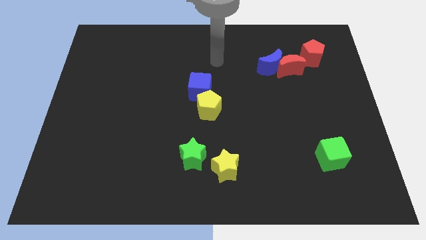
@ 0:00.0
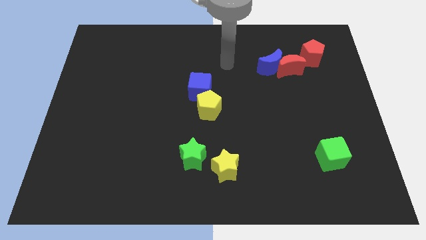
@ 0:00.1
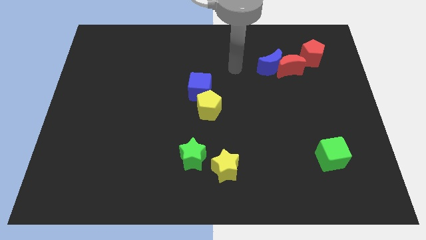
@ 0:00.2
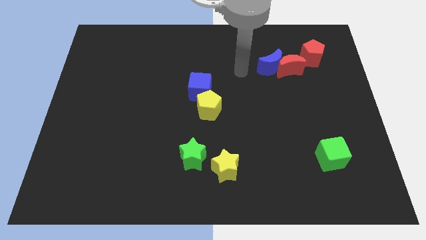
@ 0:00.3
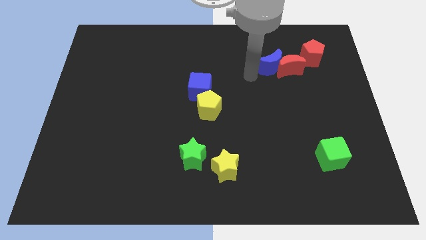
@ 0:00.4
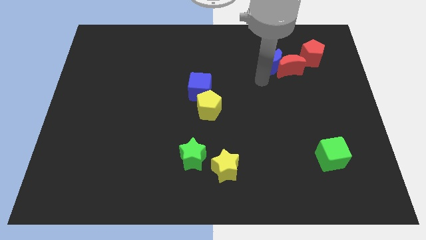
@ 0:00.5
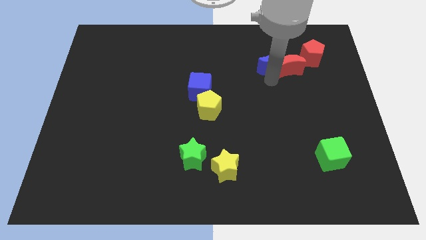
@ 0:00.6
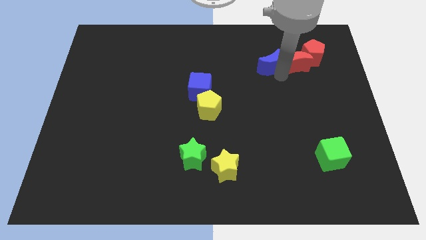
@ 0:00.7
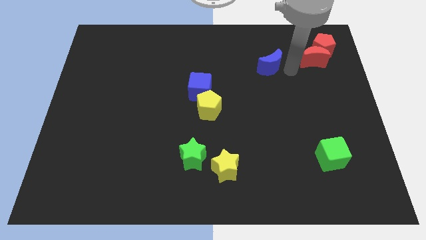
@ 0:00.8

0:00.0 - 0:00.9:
separate the blue moon from the red moon

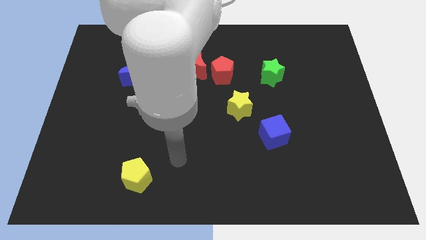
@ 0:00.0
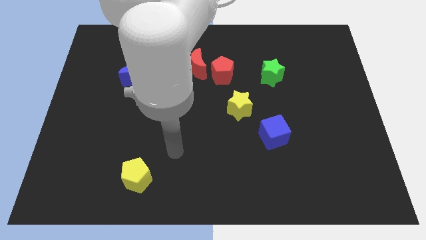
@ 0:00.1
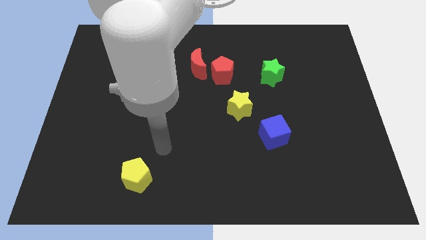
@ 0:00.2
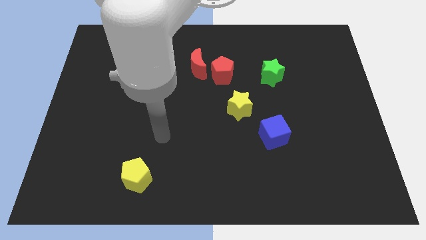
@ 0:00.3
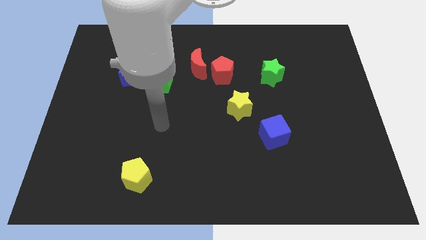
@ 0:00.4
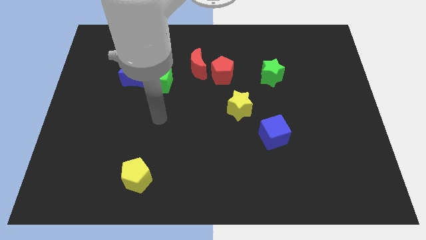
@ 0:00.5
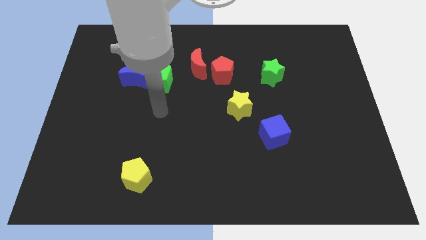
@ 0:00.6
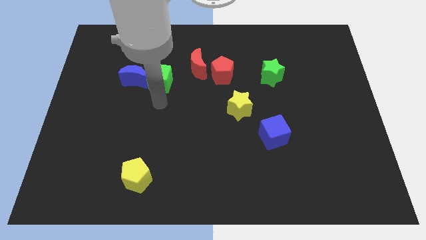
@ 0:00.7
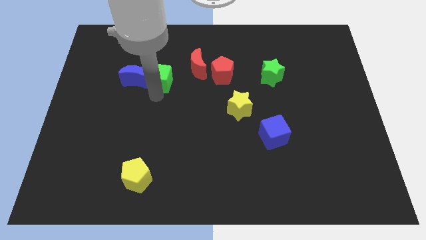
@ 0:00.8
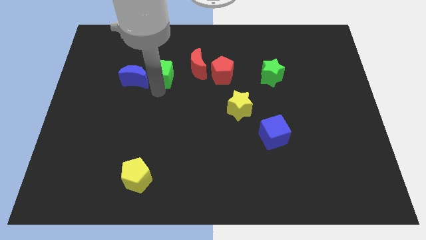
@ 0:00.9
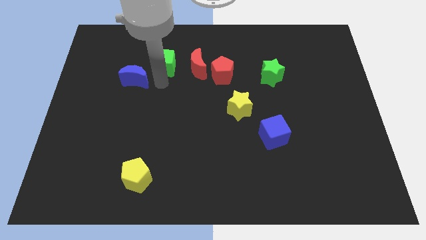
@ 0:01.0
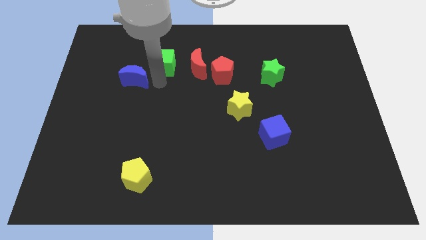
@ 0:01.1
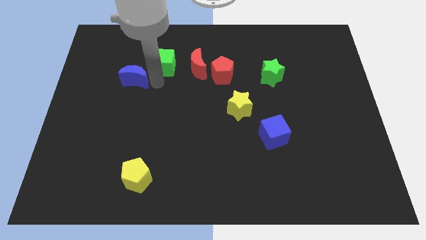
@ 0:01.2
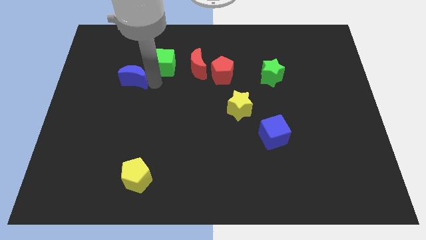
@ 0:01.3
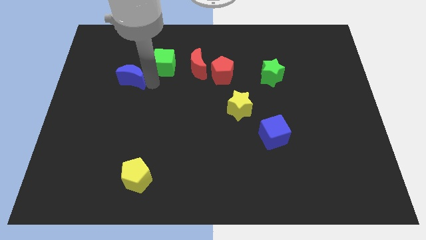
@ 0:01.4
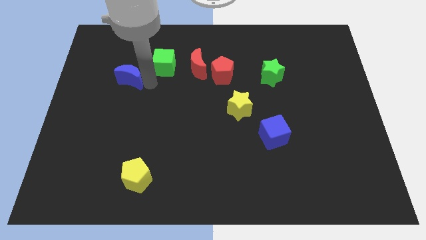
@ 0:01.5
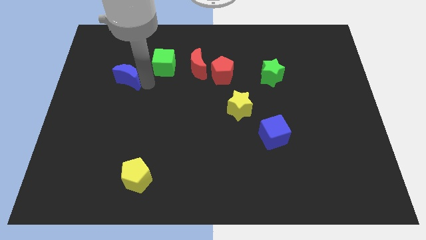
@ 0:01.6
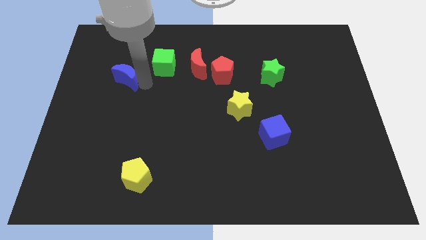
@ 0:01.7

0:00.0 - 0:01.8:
separate the blue moon from the green cube

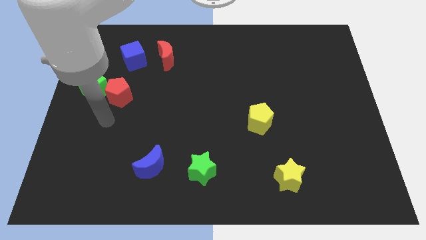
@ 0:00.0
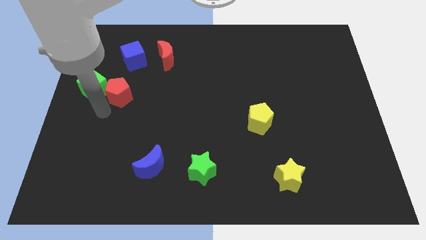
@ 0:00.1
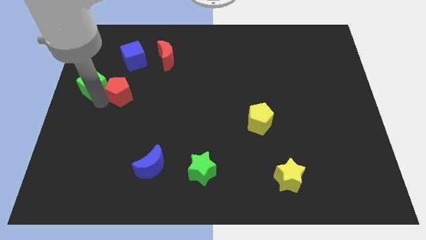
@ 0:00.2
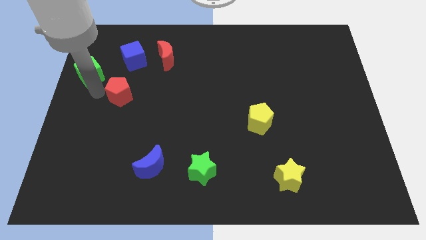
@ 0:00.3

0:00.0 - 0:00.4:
pull the red pentagon apart from the green cube

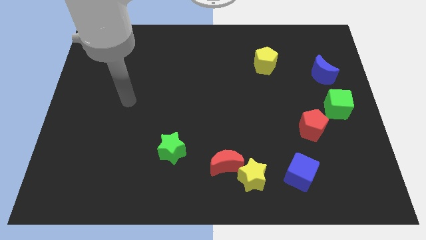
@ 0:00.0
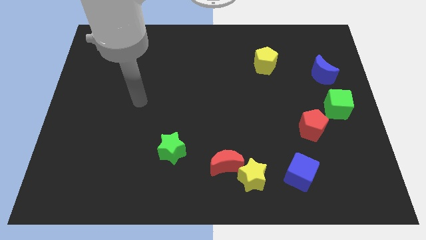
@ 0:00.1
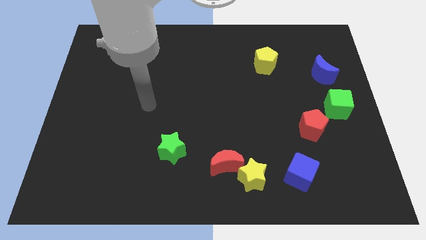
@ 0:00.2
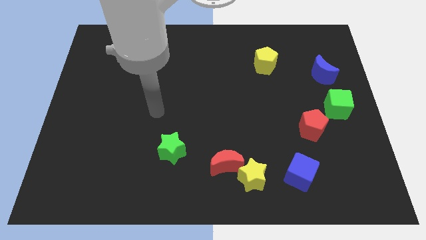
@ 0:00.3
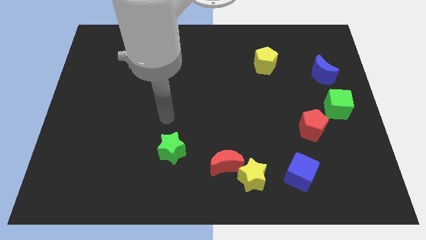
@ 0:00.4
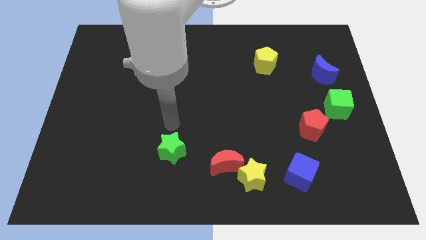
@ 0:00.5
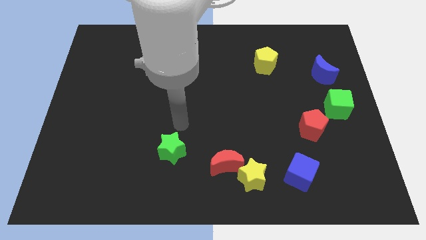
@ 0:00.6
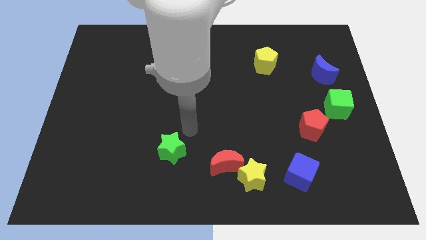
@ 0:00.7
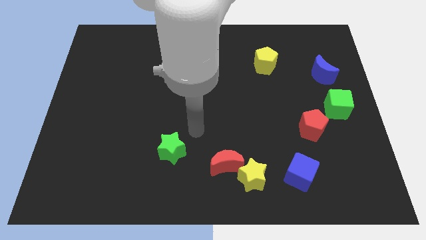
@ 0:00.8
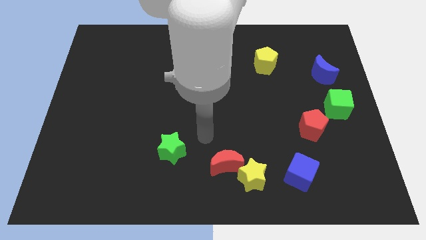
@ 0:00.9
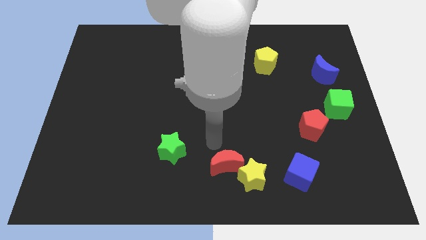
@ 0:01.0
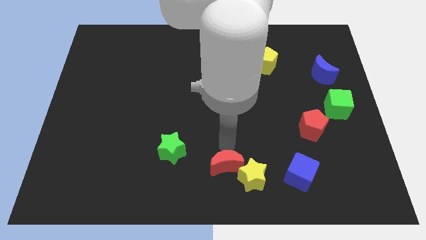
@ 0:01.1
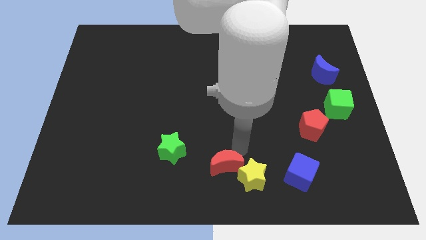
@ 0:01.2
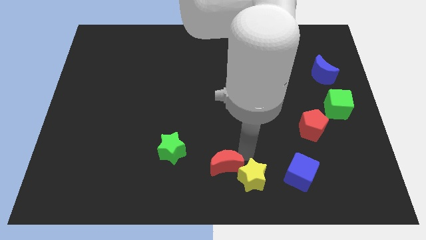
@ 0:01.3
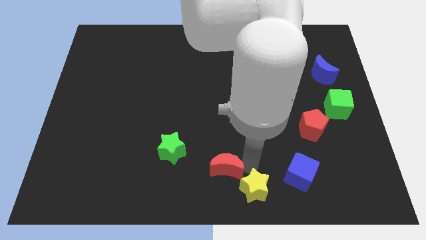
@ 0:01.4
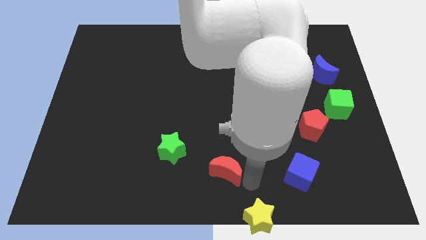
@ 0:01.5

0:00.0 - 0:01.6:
pull the red moon apart from the yellow star

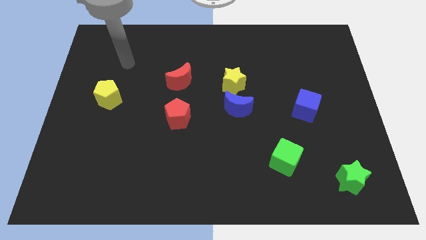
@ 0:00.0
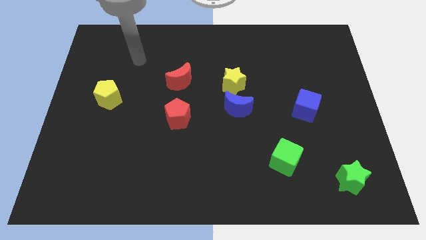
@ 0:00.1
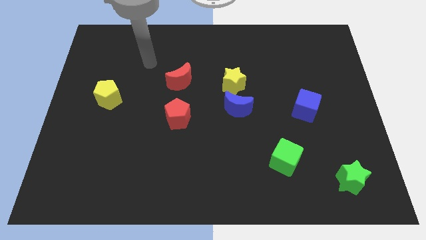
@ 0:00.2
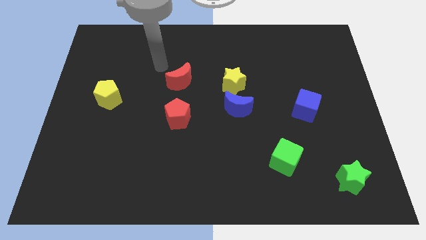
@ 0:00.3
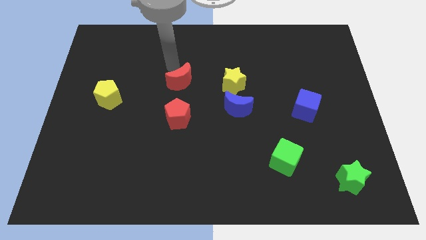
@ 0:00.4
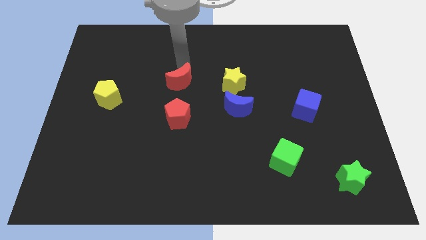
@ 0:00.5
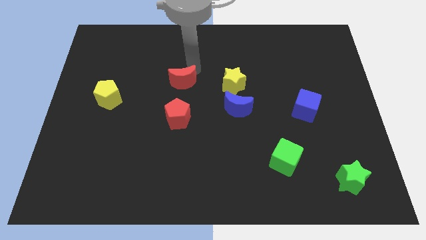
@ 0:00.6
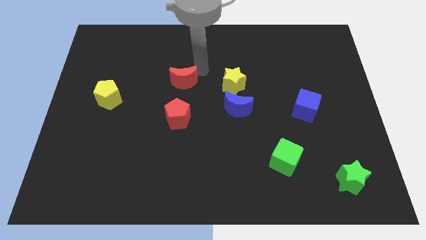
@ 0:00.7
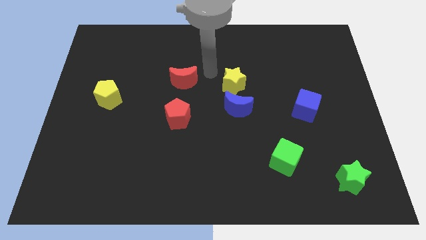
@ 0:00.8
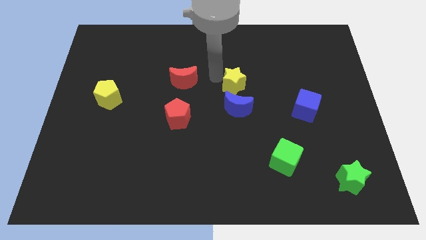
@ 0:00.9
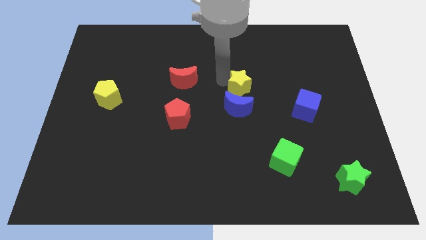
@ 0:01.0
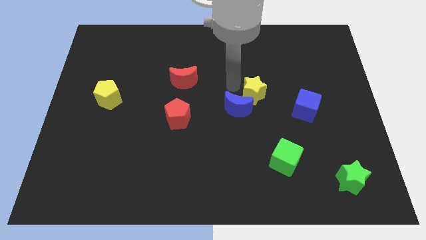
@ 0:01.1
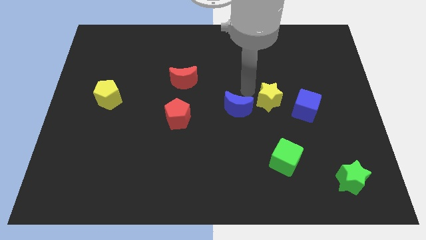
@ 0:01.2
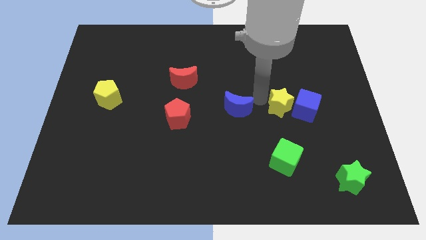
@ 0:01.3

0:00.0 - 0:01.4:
pull the blue moon apart from the yellow star

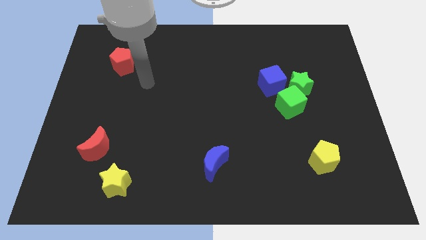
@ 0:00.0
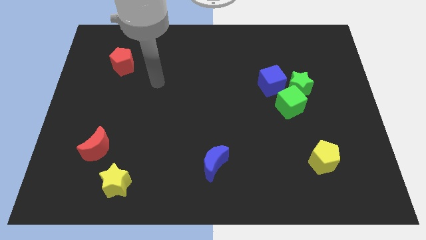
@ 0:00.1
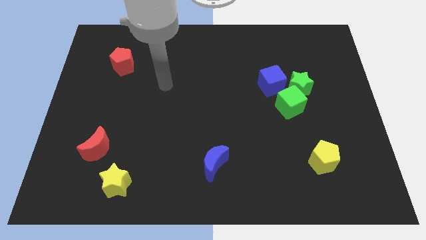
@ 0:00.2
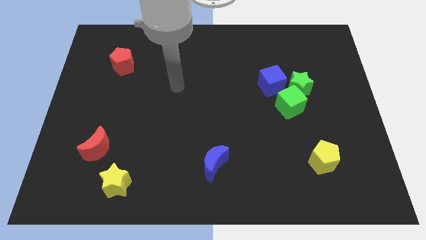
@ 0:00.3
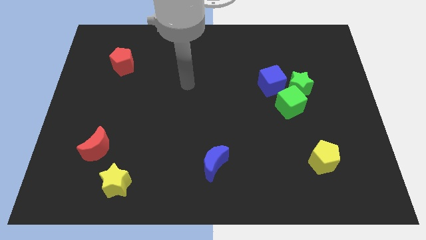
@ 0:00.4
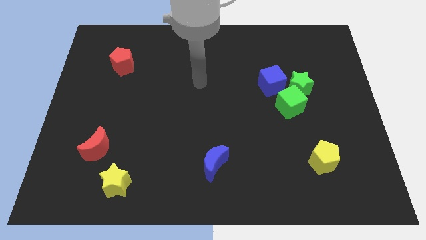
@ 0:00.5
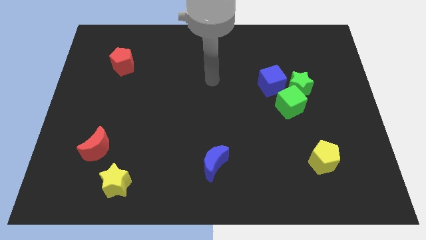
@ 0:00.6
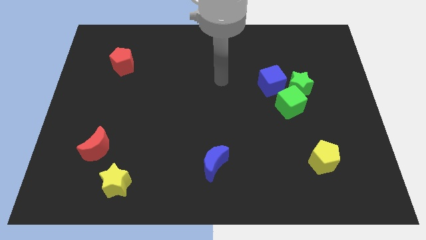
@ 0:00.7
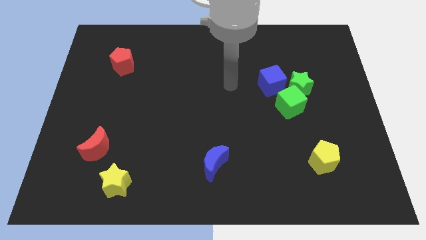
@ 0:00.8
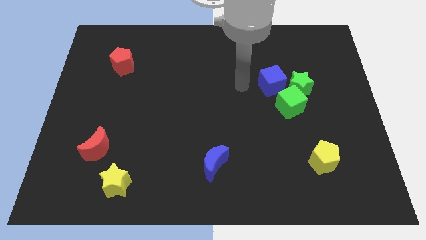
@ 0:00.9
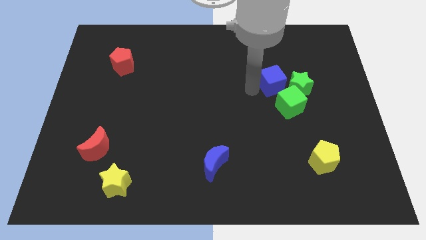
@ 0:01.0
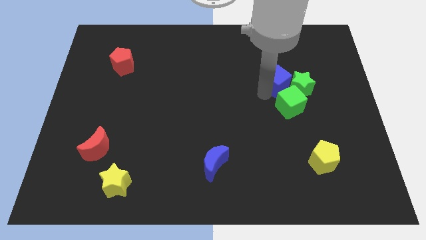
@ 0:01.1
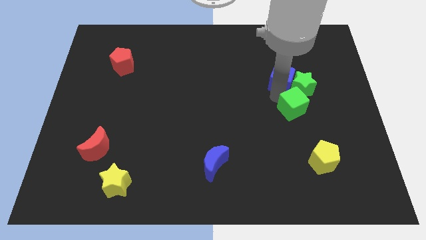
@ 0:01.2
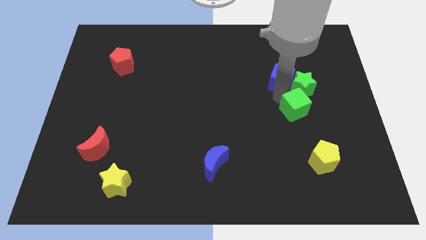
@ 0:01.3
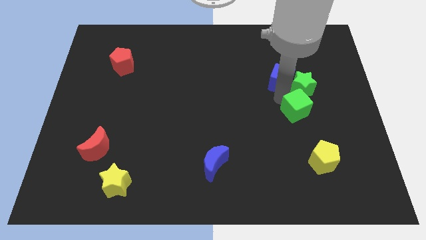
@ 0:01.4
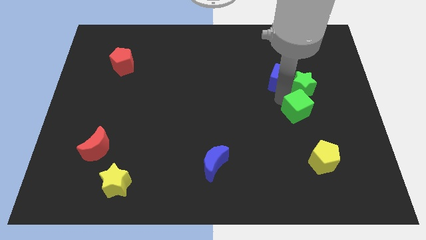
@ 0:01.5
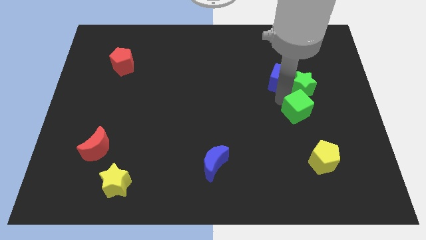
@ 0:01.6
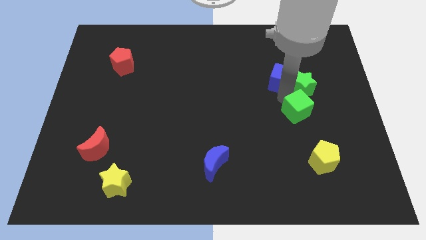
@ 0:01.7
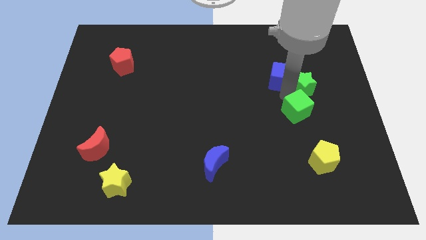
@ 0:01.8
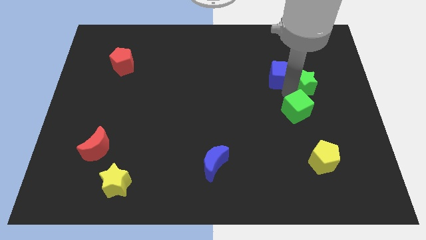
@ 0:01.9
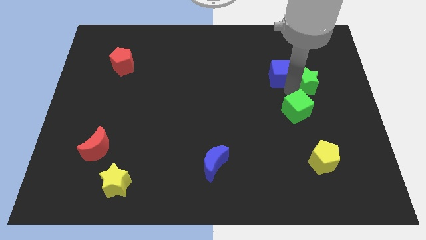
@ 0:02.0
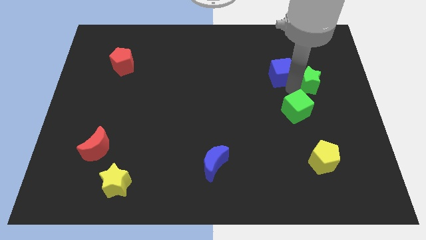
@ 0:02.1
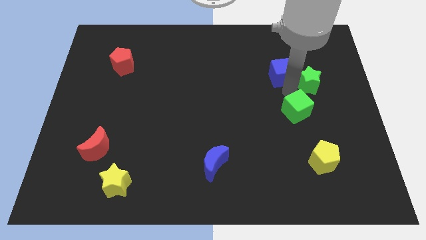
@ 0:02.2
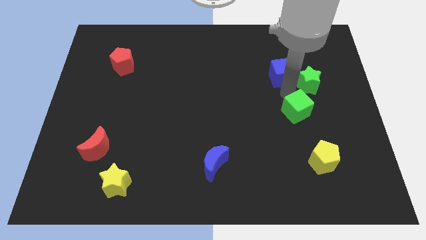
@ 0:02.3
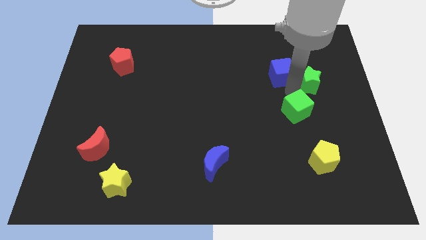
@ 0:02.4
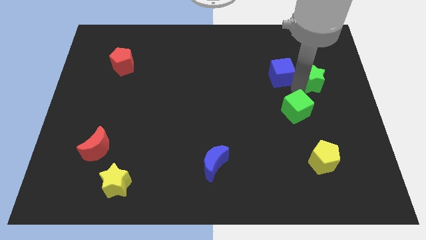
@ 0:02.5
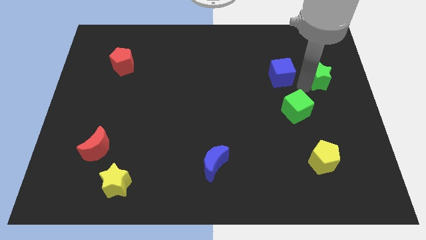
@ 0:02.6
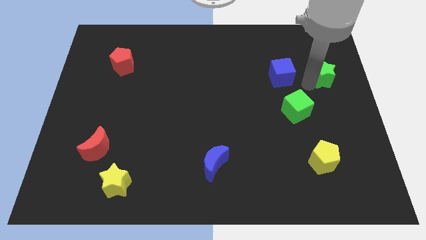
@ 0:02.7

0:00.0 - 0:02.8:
separate the green star from the green cube and blue cube

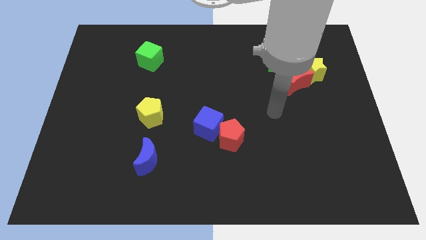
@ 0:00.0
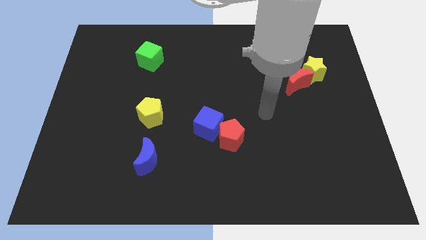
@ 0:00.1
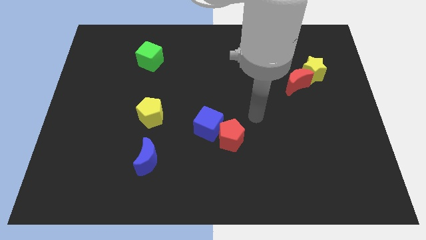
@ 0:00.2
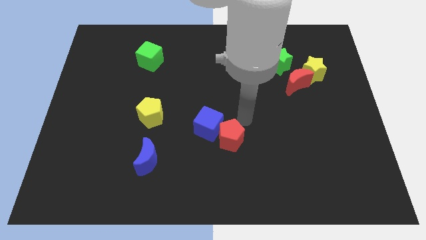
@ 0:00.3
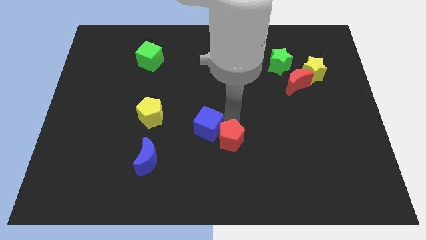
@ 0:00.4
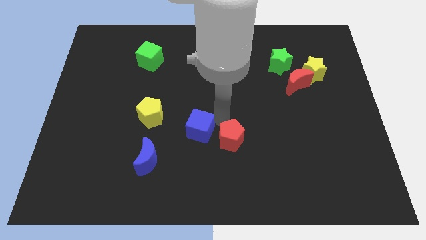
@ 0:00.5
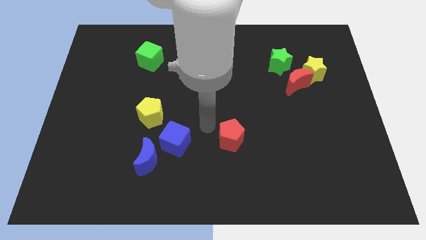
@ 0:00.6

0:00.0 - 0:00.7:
separate the red pentagon from the blue cube
